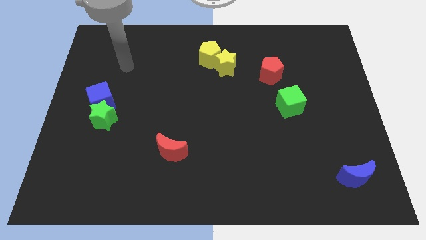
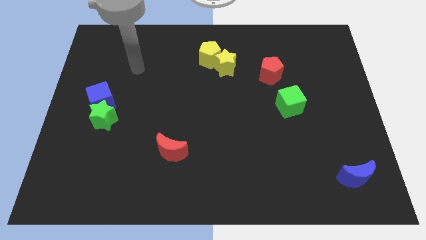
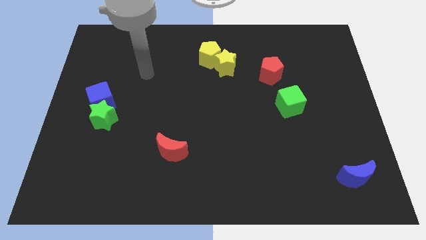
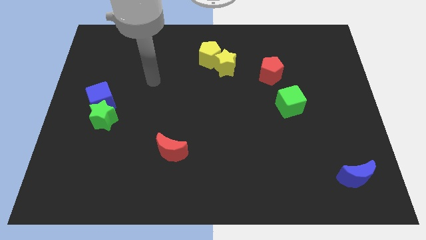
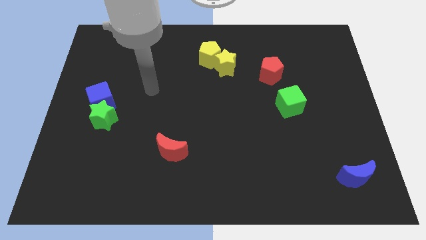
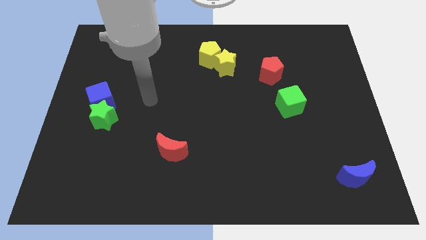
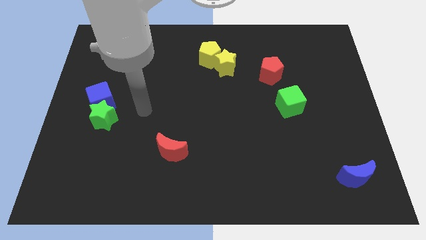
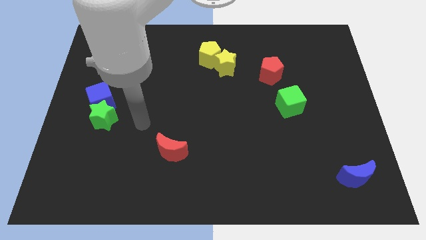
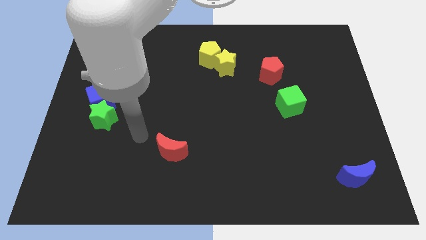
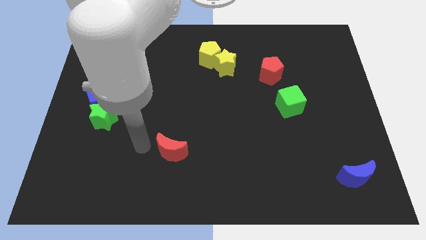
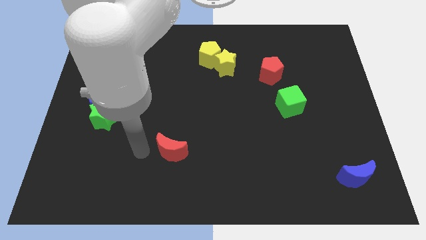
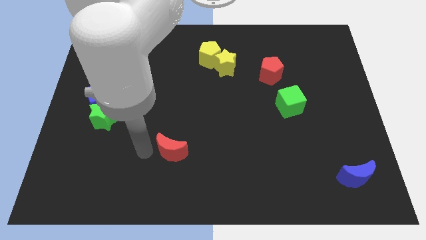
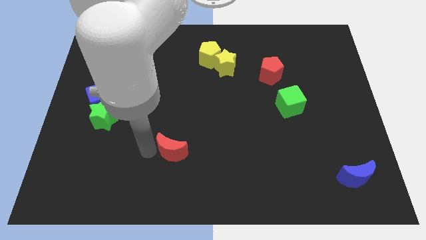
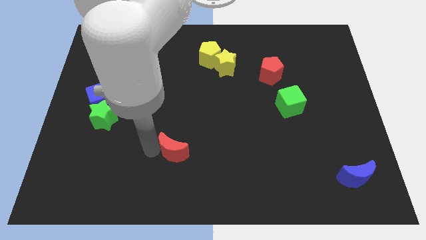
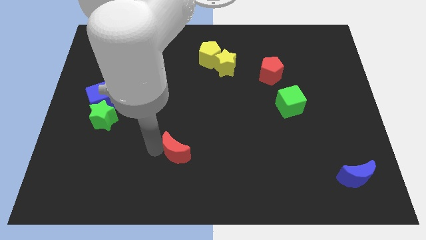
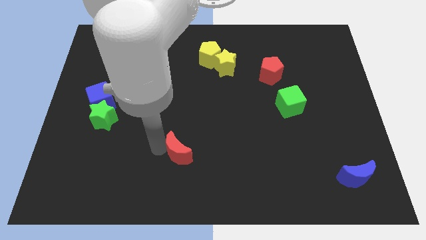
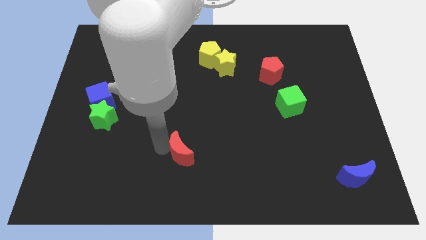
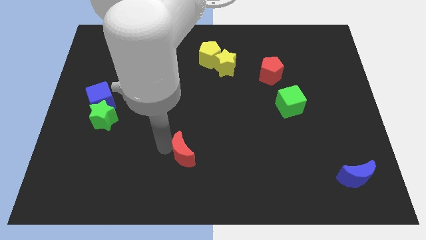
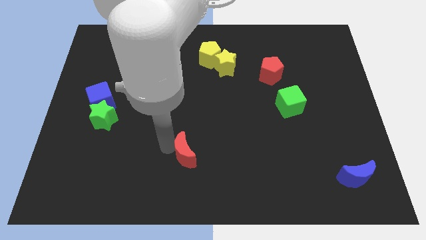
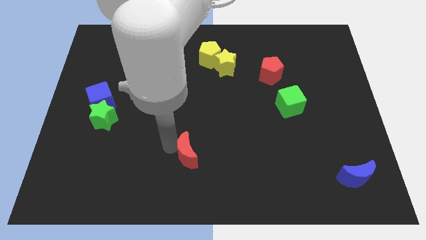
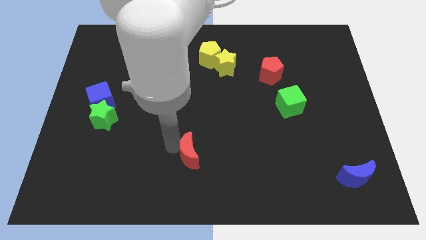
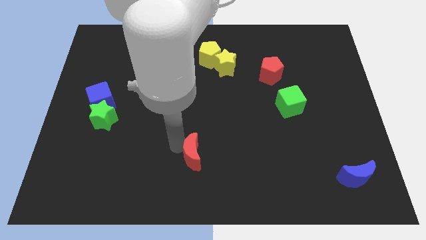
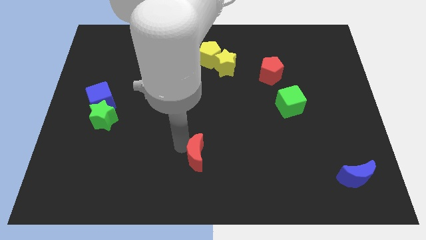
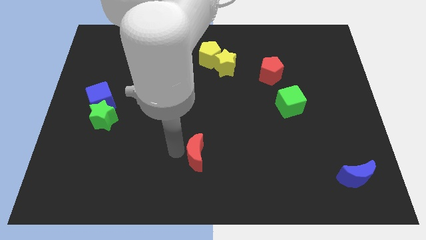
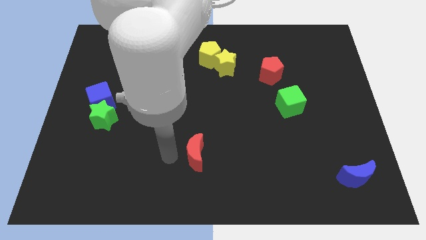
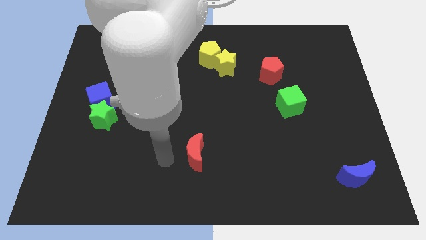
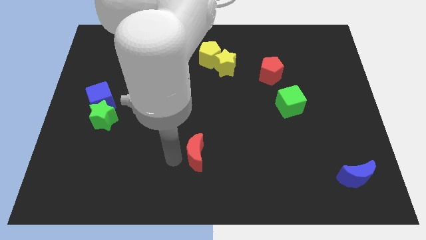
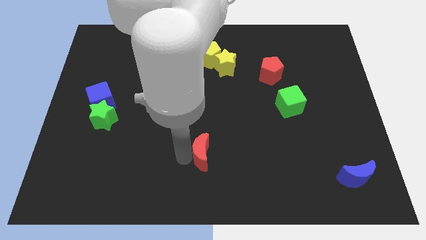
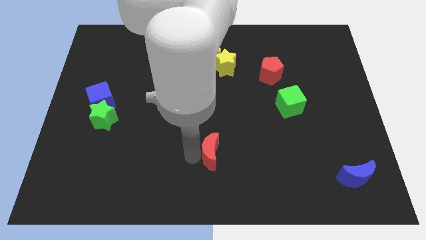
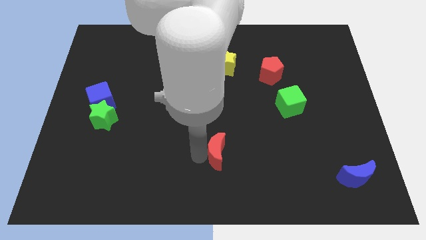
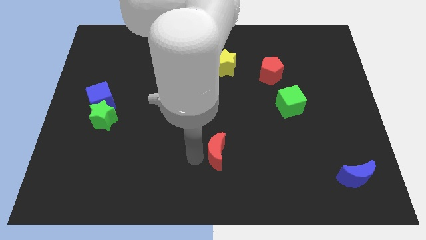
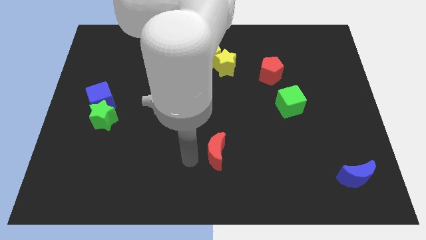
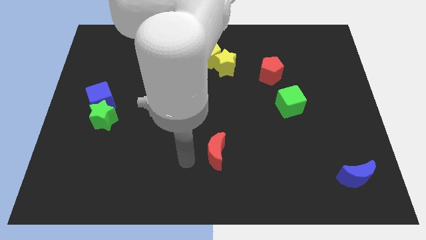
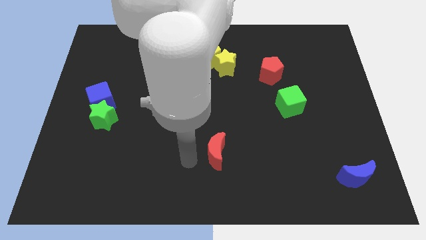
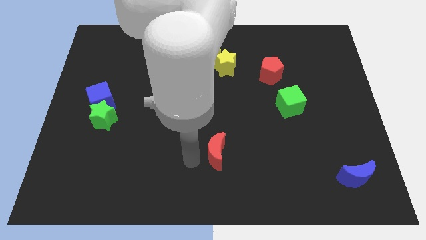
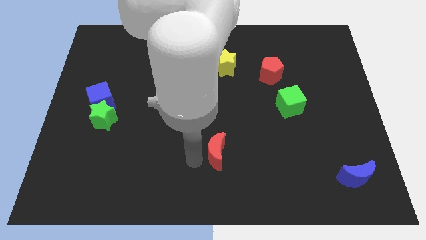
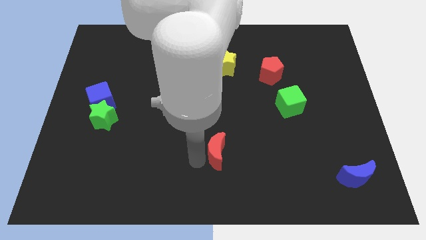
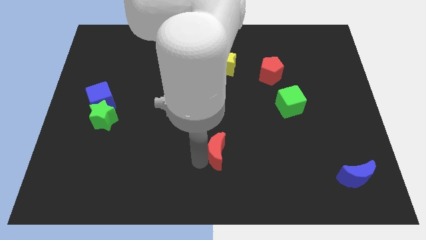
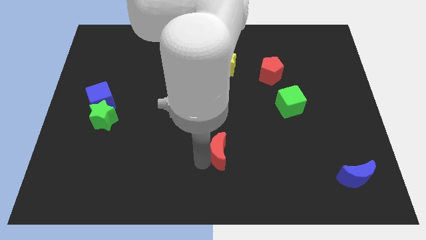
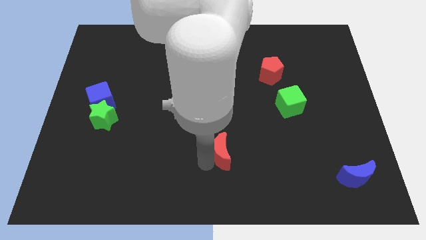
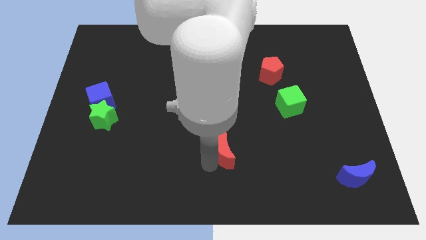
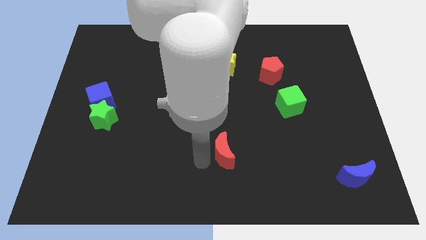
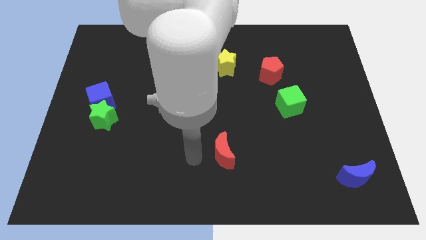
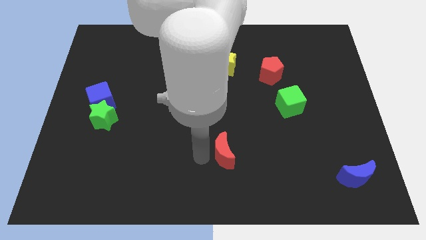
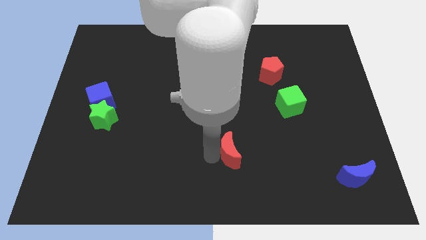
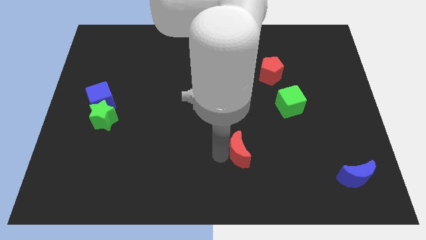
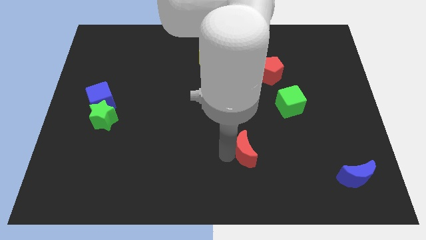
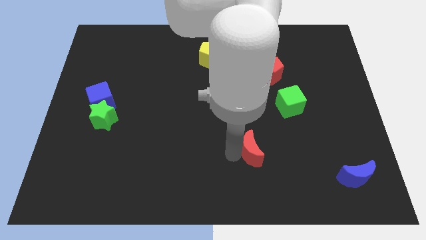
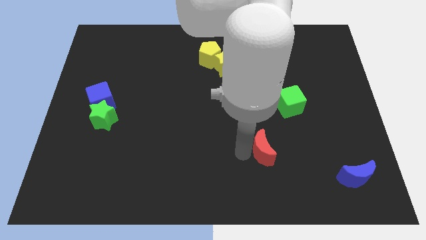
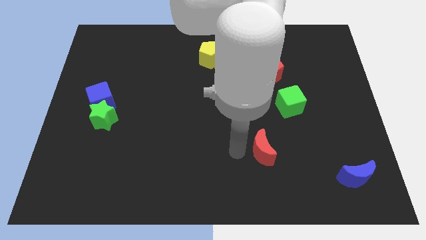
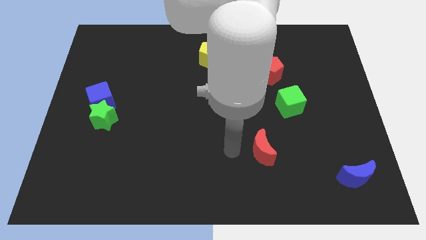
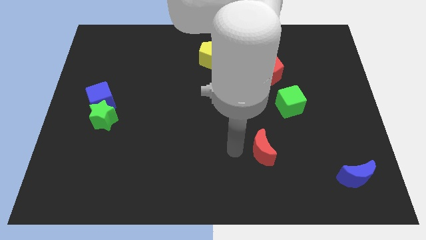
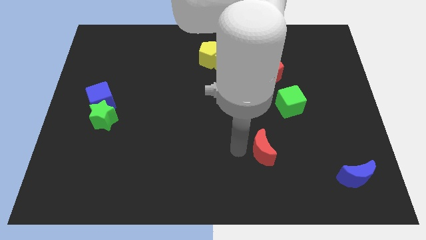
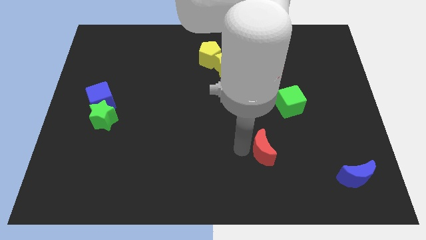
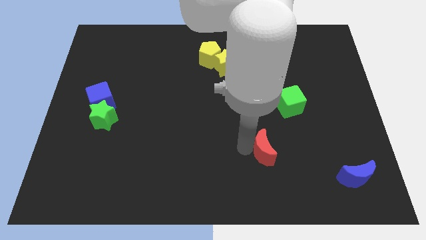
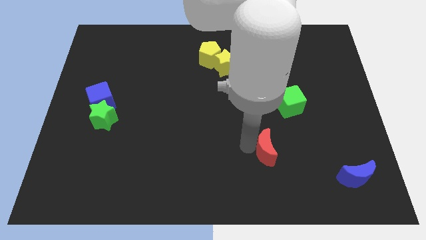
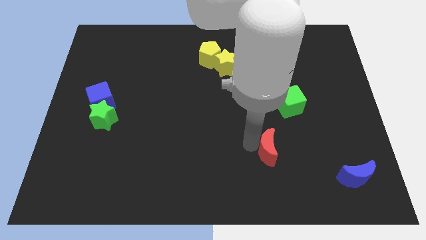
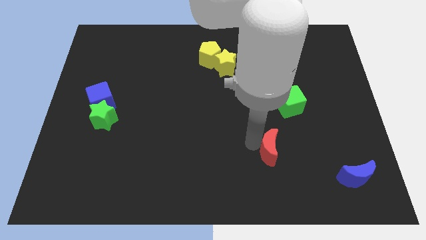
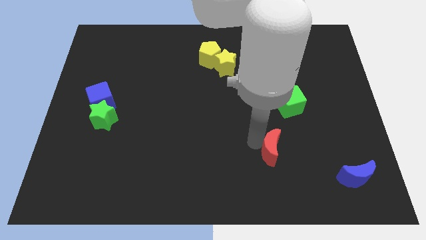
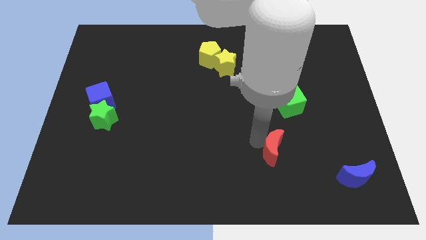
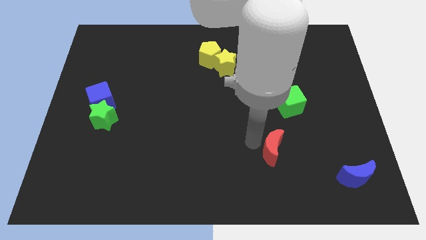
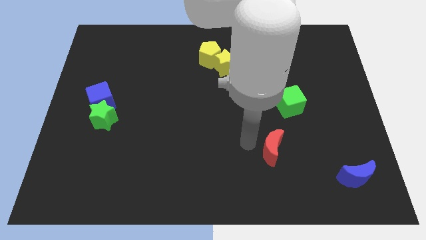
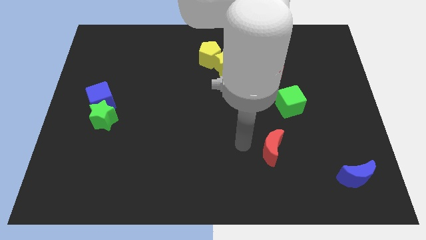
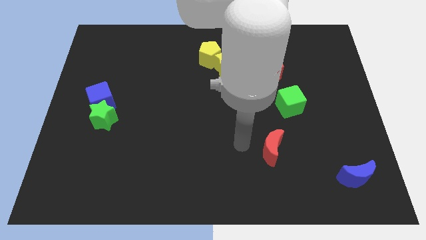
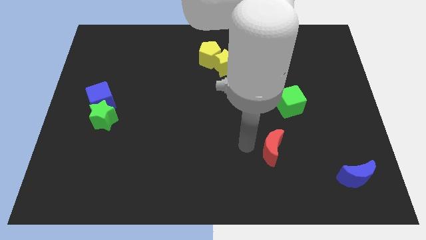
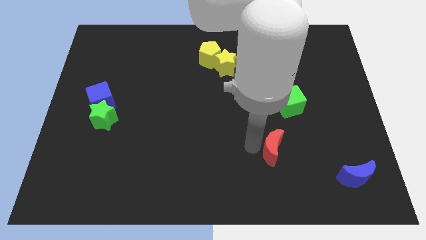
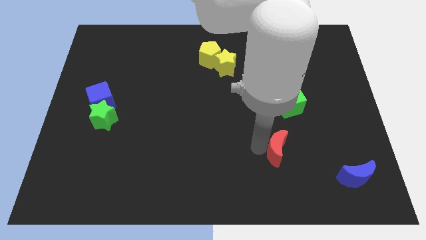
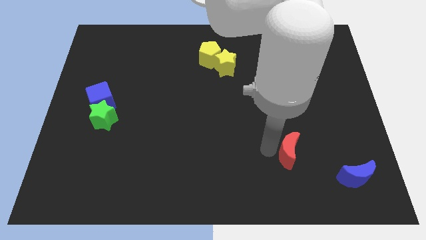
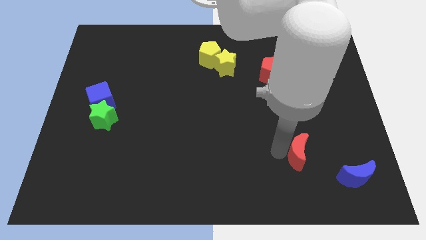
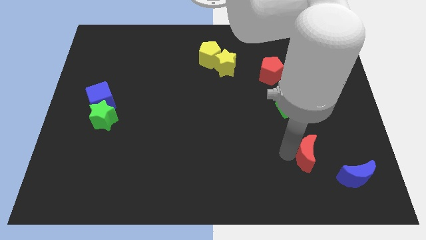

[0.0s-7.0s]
move the red moon to the top left of the blue moon

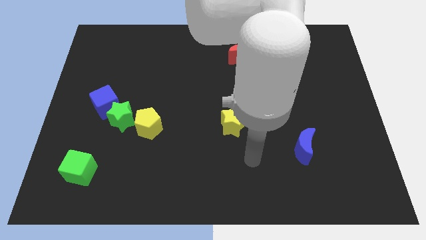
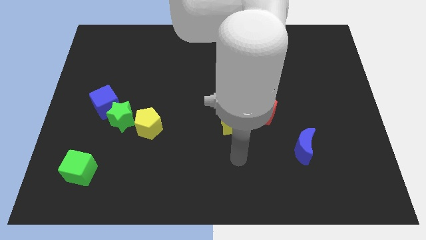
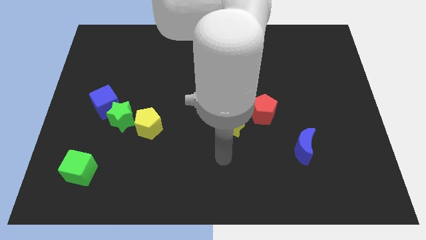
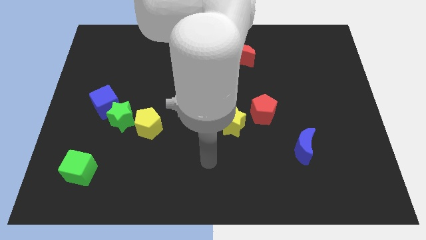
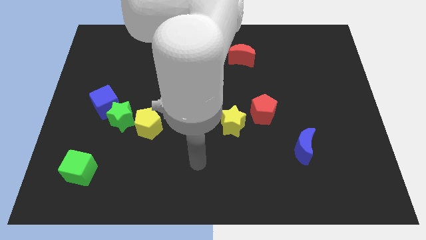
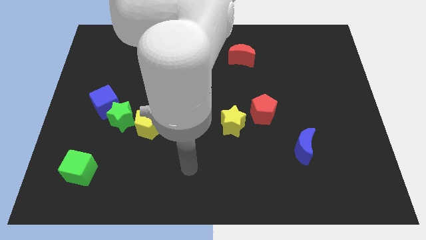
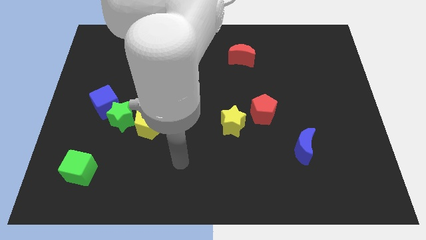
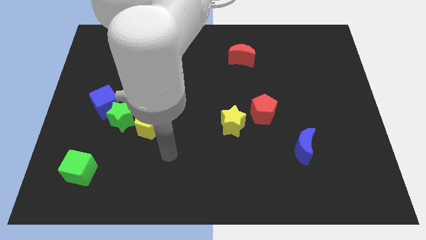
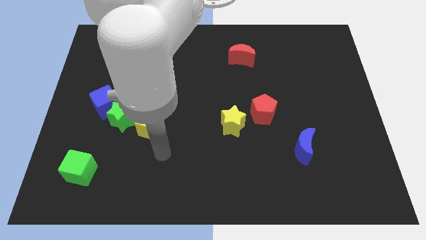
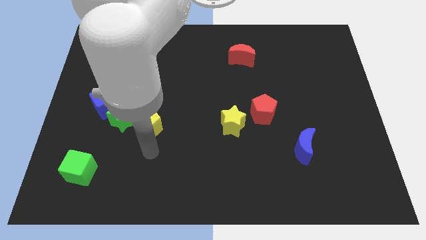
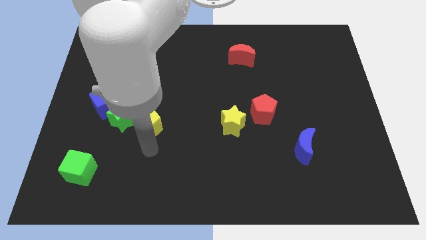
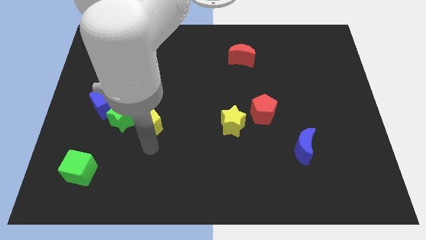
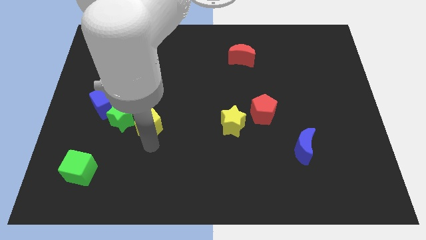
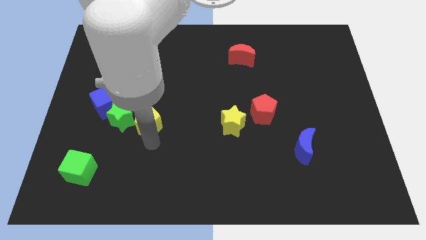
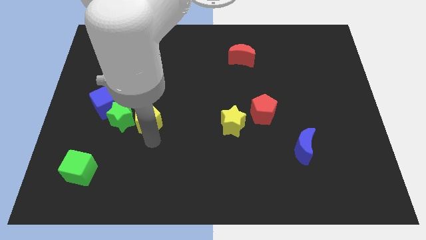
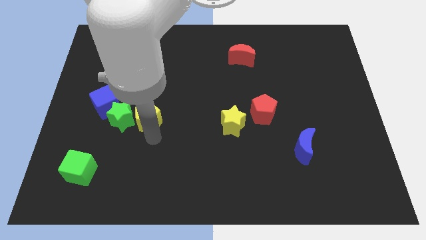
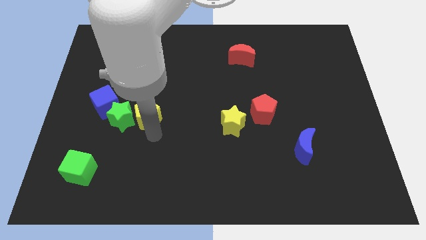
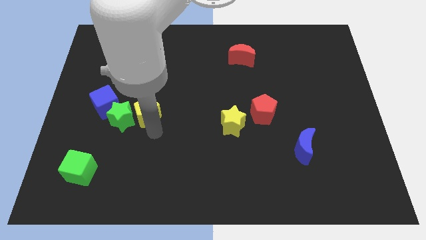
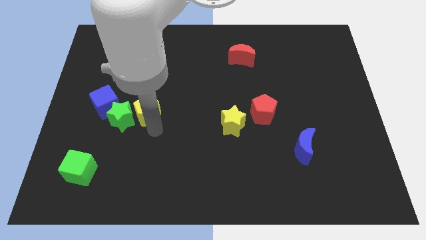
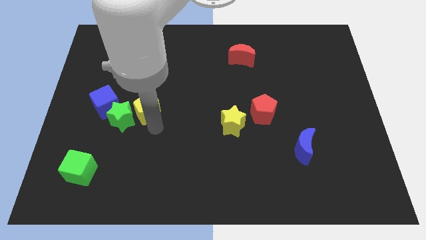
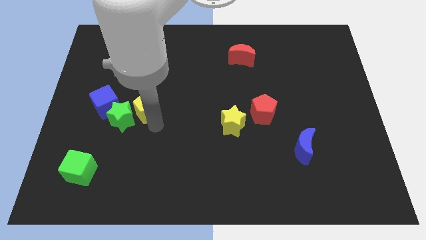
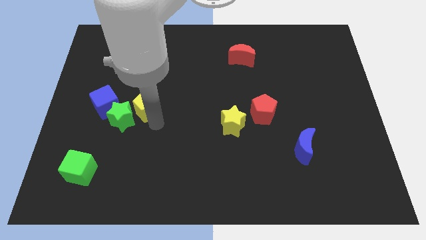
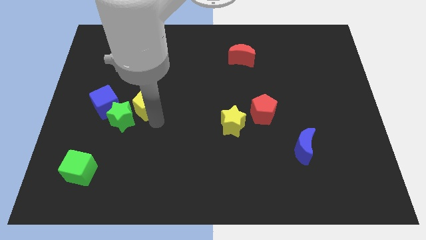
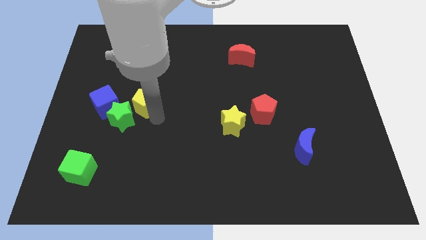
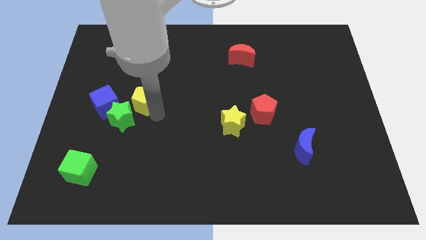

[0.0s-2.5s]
put the yellow pentagon to the top side of the green star
